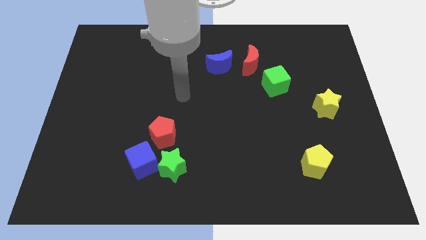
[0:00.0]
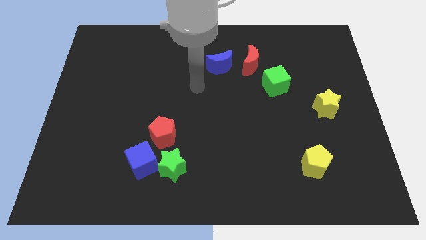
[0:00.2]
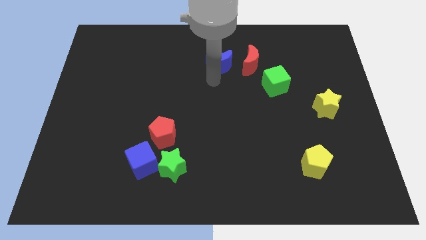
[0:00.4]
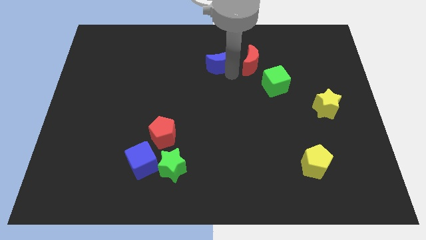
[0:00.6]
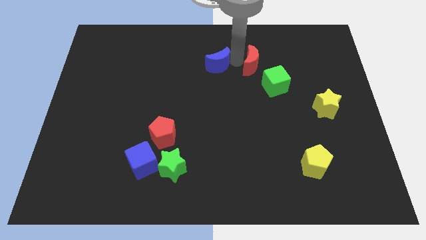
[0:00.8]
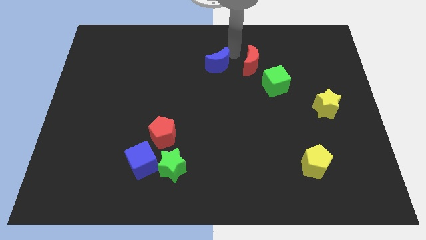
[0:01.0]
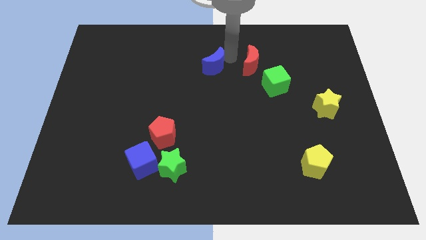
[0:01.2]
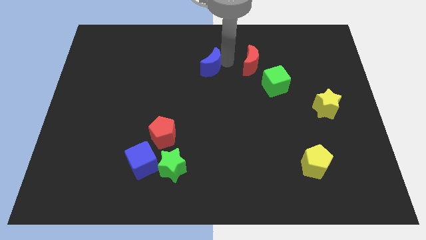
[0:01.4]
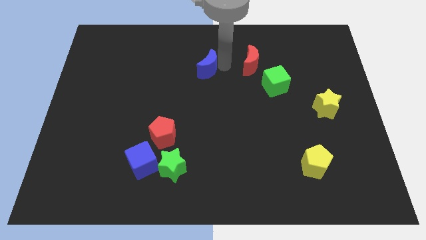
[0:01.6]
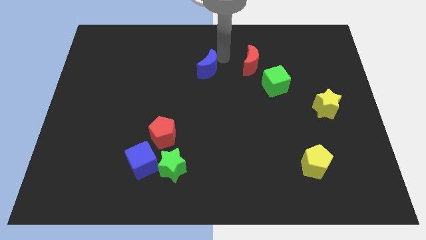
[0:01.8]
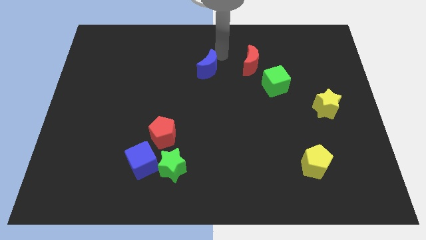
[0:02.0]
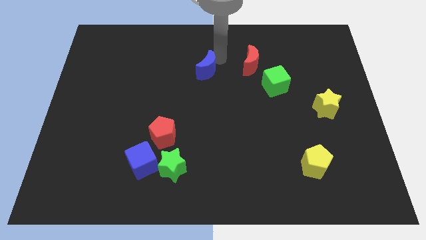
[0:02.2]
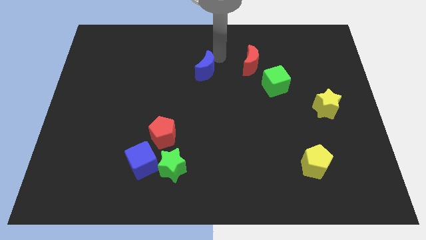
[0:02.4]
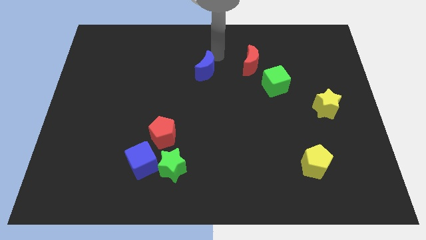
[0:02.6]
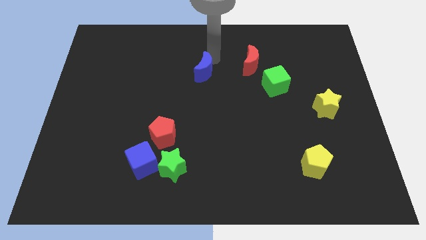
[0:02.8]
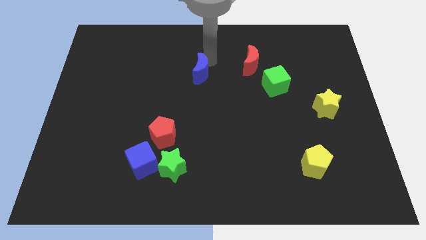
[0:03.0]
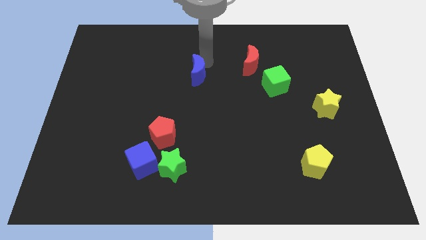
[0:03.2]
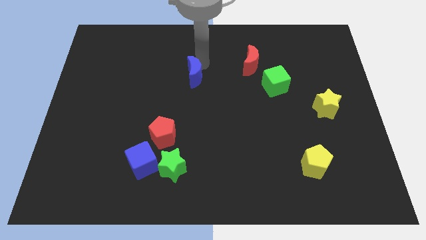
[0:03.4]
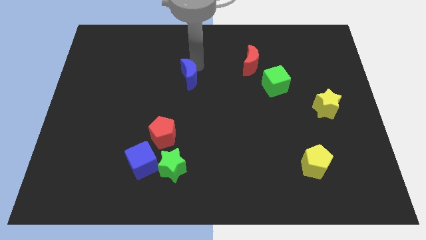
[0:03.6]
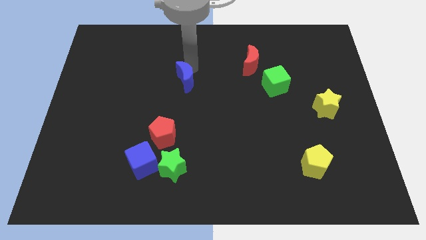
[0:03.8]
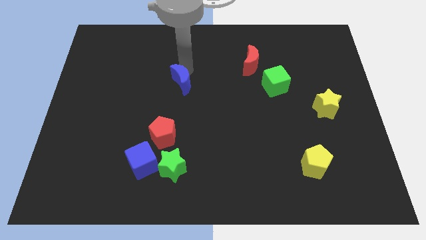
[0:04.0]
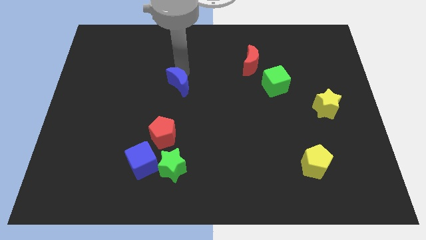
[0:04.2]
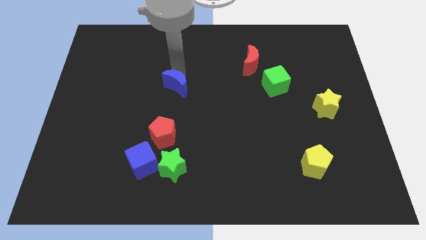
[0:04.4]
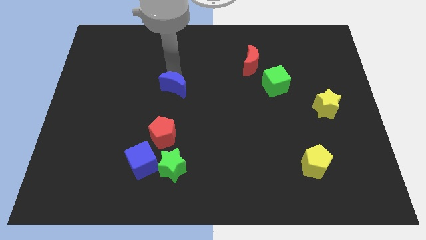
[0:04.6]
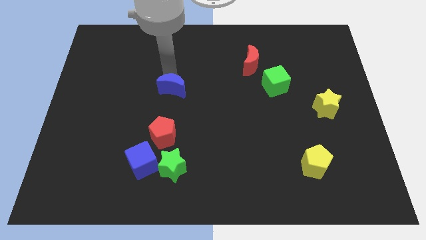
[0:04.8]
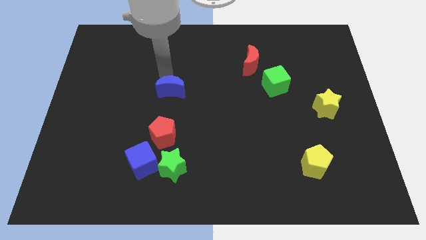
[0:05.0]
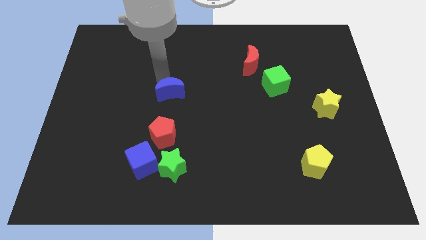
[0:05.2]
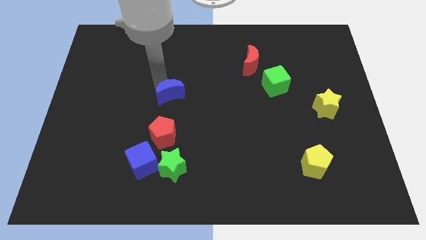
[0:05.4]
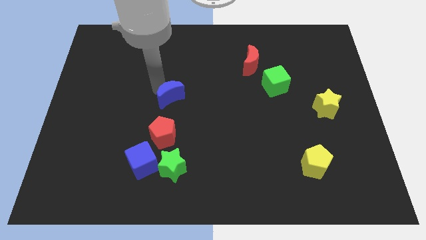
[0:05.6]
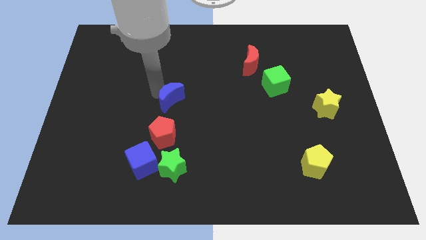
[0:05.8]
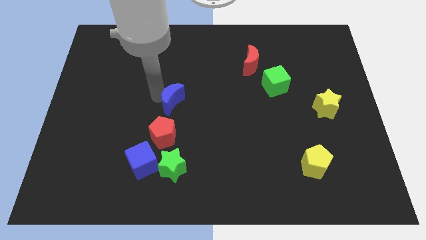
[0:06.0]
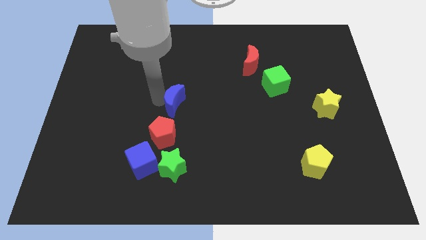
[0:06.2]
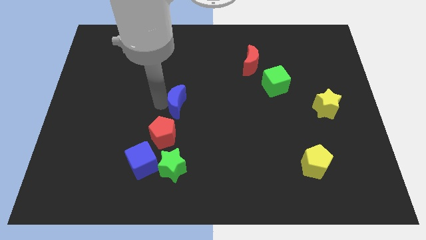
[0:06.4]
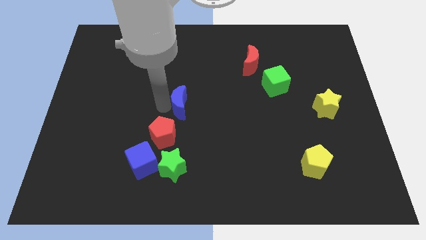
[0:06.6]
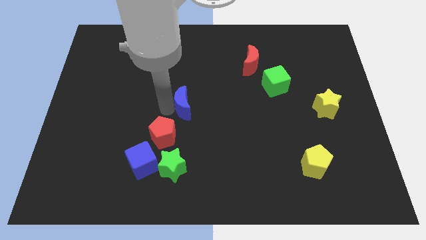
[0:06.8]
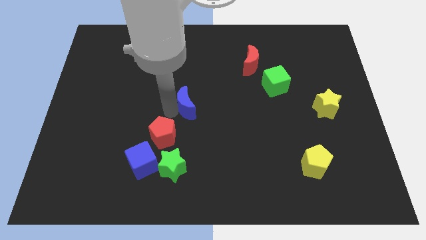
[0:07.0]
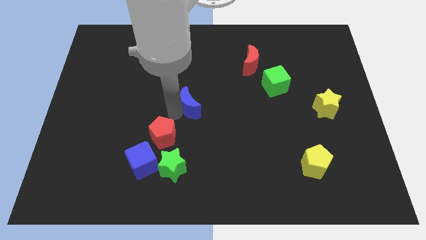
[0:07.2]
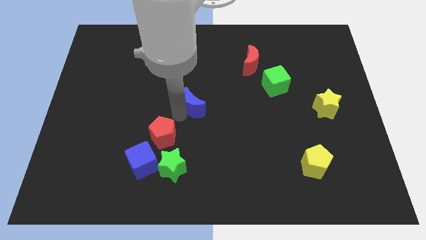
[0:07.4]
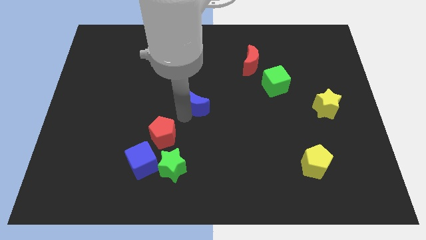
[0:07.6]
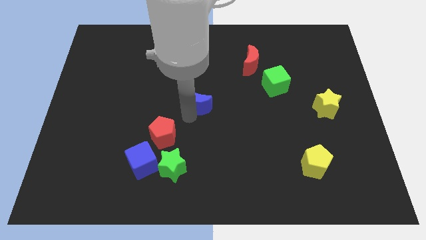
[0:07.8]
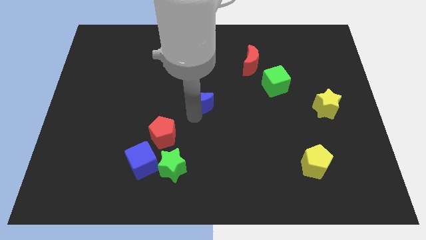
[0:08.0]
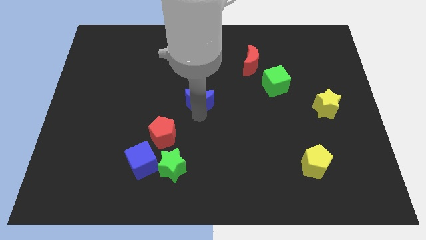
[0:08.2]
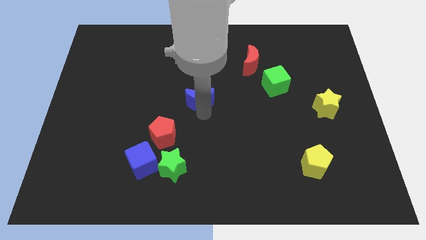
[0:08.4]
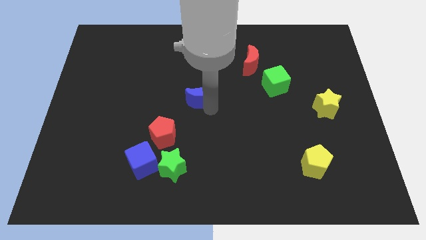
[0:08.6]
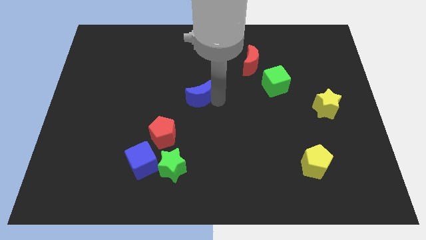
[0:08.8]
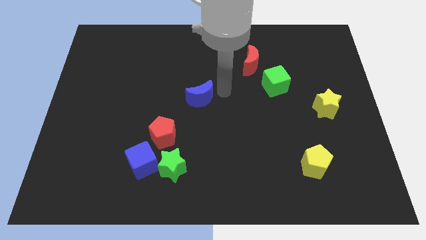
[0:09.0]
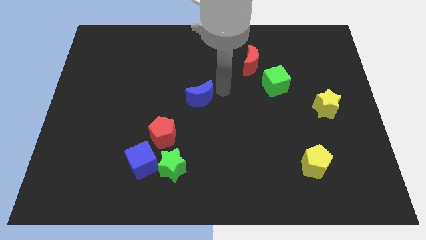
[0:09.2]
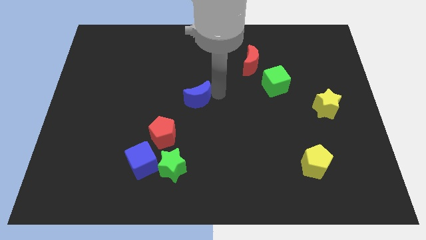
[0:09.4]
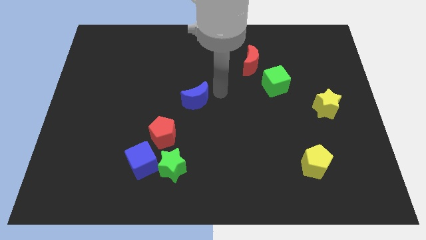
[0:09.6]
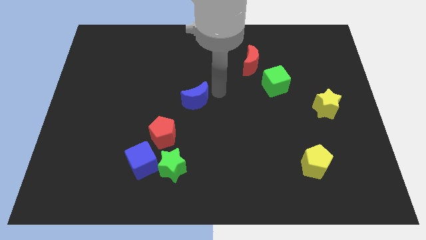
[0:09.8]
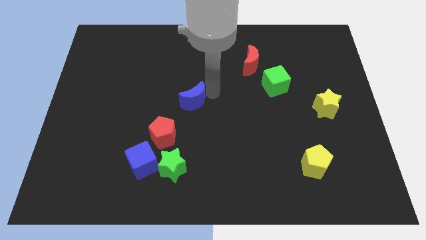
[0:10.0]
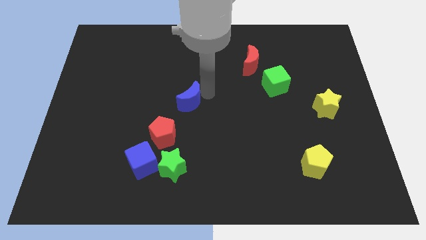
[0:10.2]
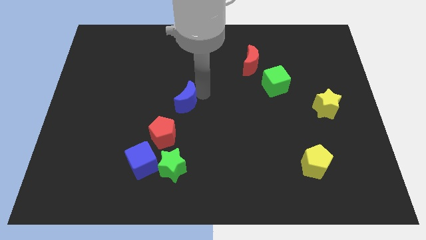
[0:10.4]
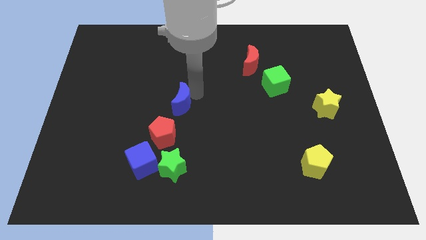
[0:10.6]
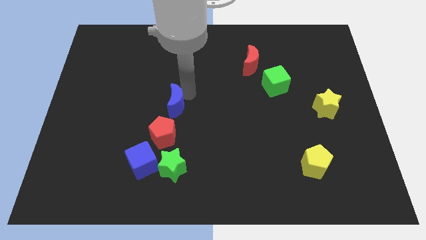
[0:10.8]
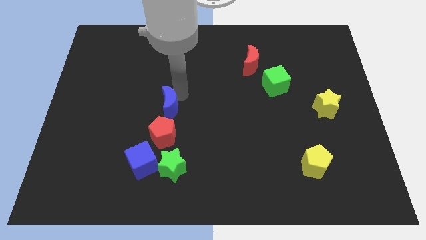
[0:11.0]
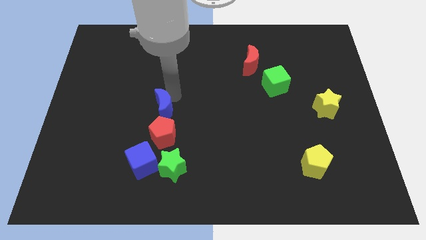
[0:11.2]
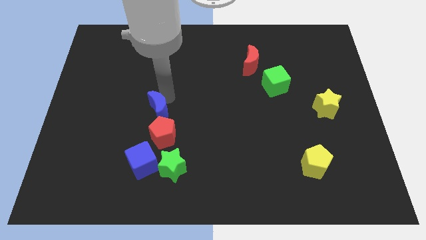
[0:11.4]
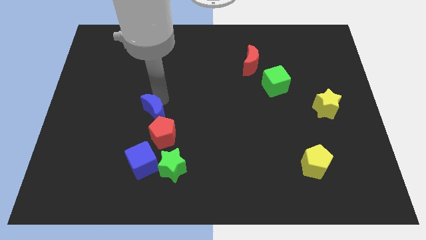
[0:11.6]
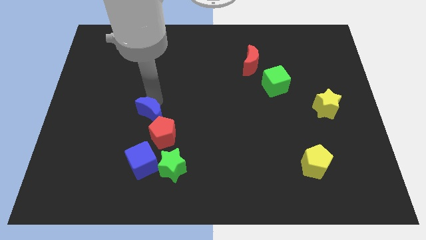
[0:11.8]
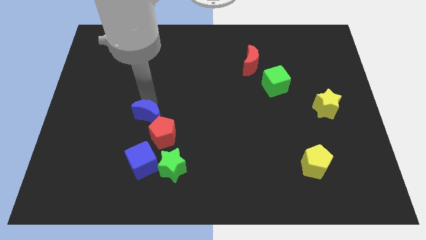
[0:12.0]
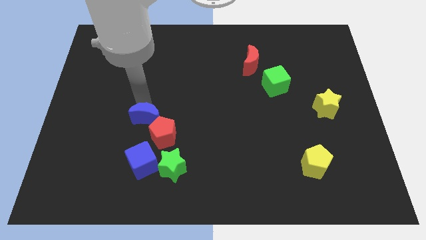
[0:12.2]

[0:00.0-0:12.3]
push the blue moon close to the red pentagon
